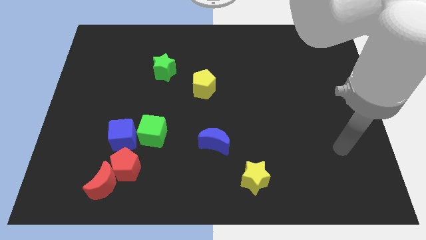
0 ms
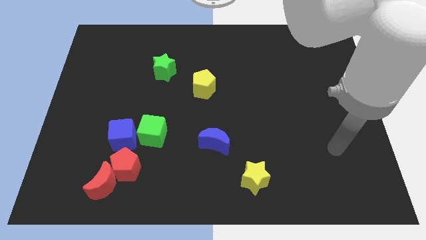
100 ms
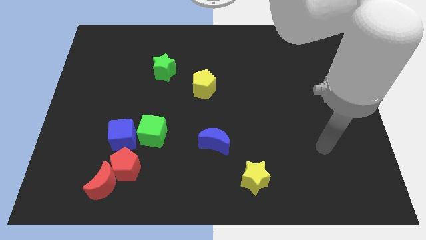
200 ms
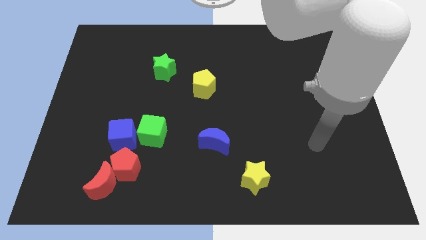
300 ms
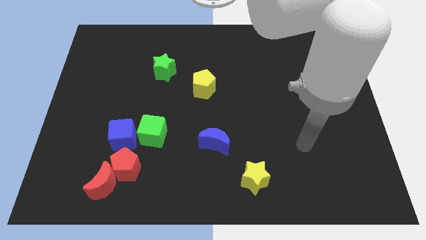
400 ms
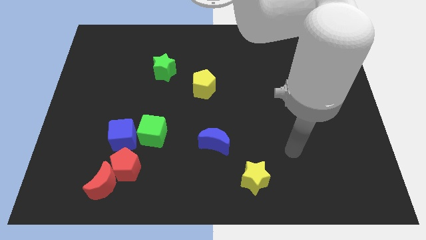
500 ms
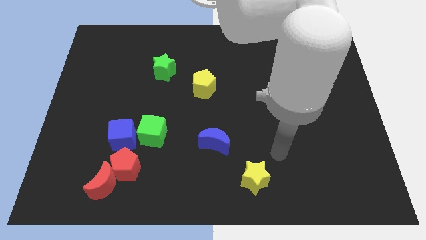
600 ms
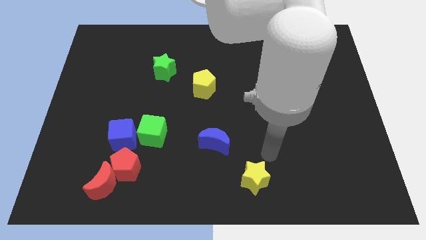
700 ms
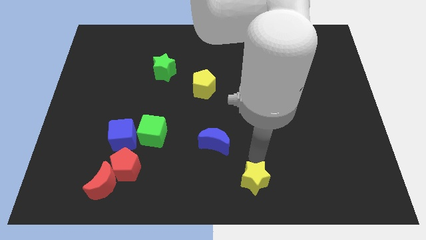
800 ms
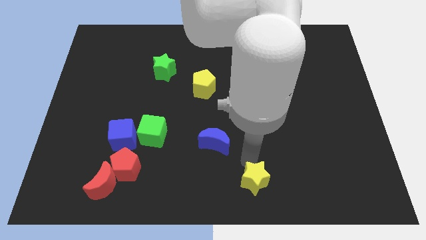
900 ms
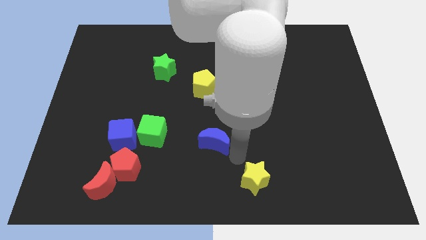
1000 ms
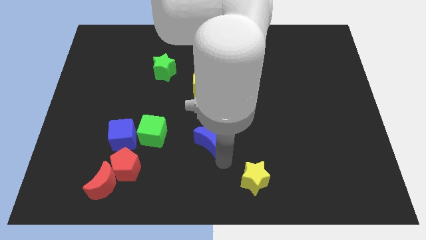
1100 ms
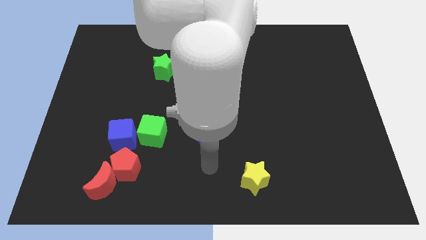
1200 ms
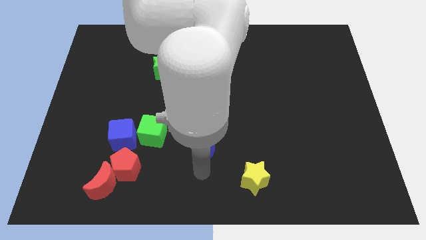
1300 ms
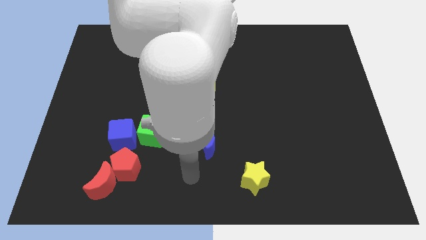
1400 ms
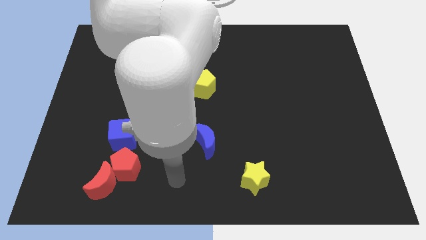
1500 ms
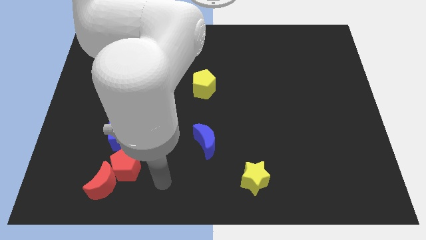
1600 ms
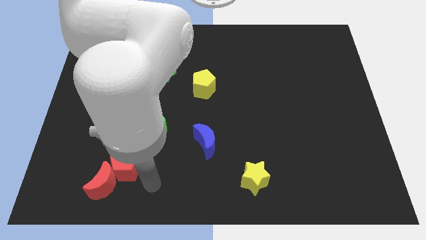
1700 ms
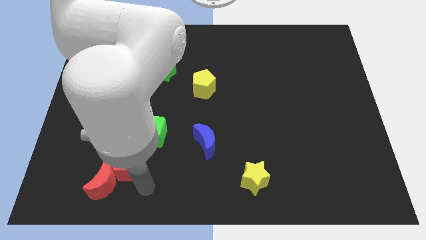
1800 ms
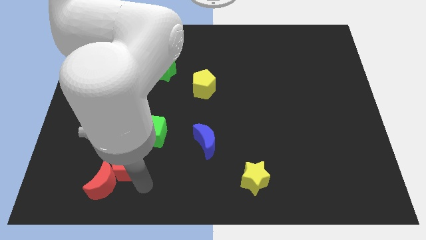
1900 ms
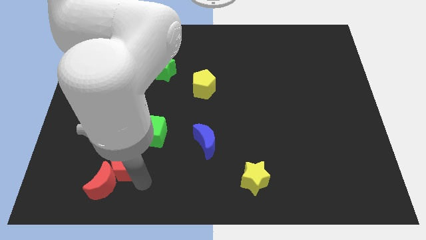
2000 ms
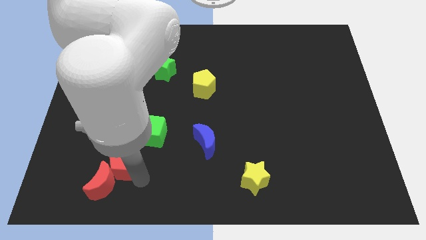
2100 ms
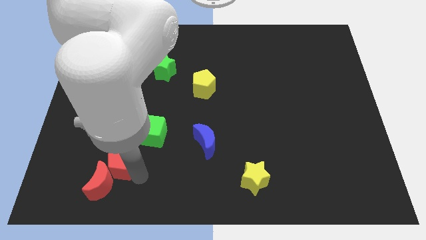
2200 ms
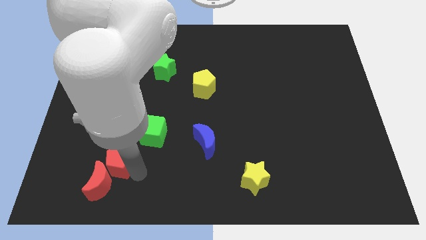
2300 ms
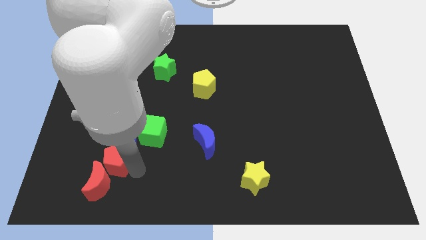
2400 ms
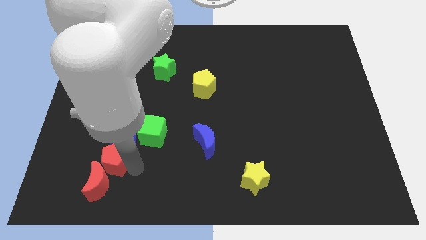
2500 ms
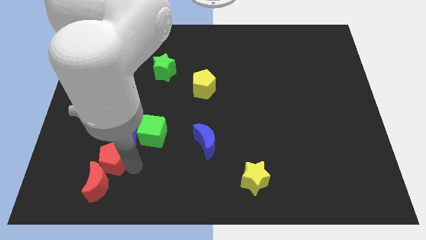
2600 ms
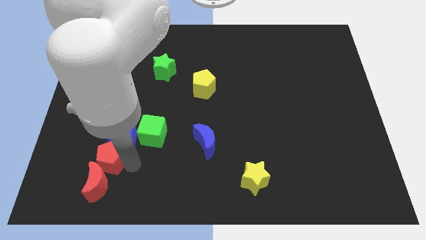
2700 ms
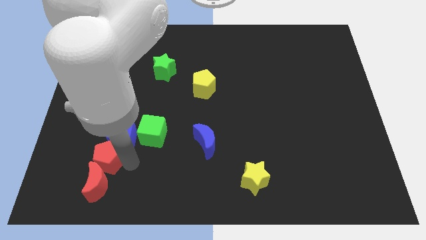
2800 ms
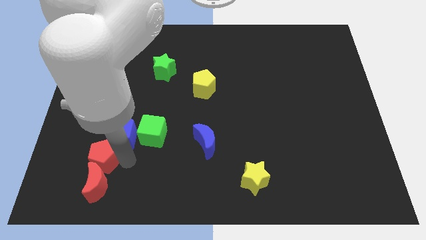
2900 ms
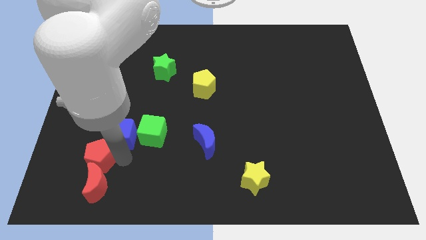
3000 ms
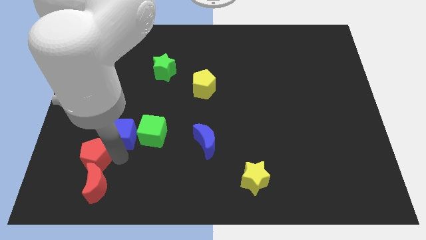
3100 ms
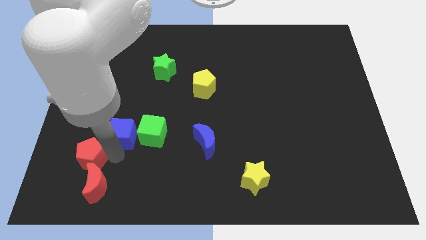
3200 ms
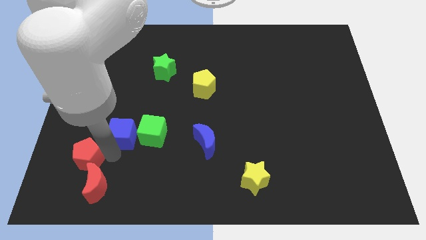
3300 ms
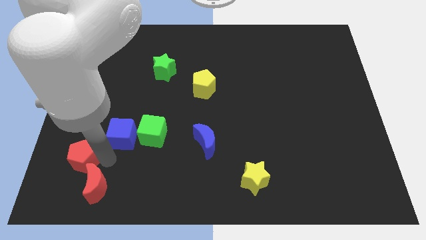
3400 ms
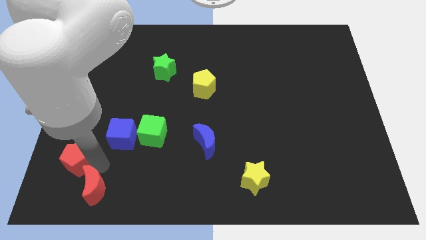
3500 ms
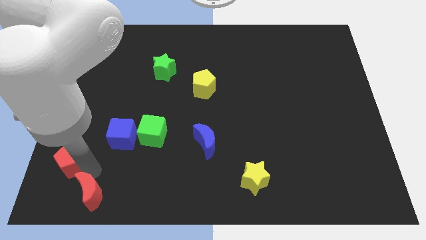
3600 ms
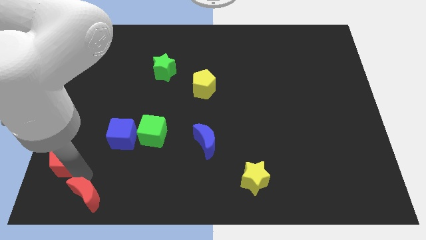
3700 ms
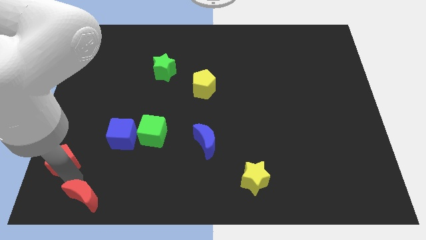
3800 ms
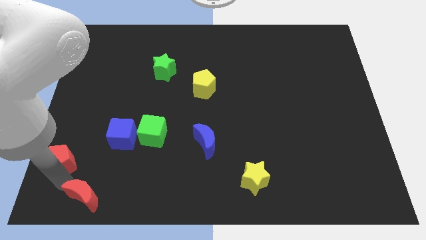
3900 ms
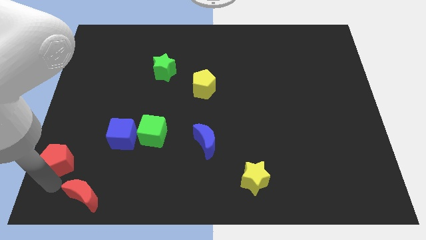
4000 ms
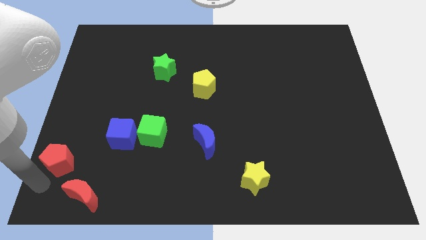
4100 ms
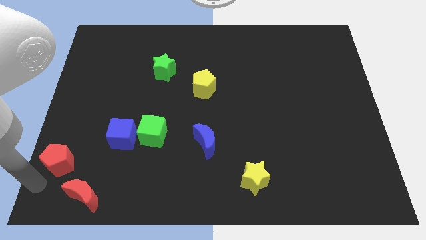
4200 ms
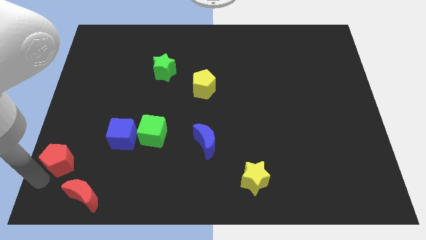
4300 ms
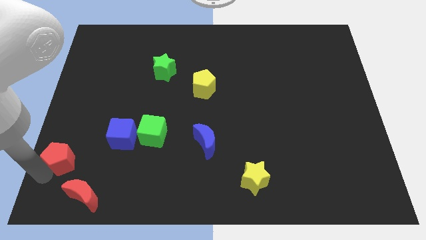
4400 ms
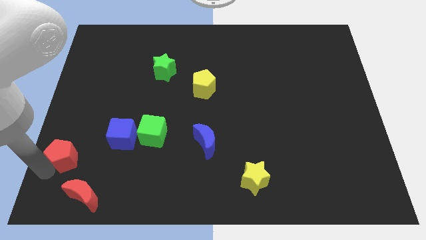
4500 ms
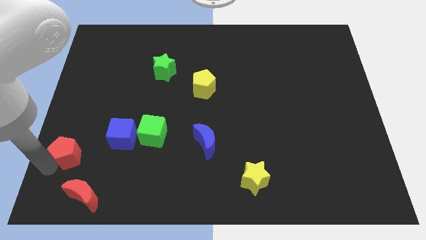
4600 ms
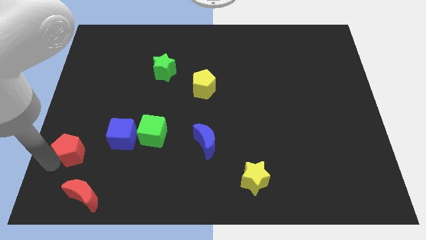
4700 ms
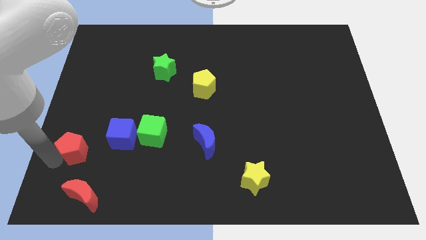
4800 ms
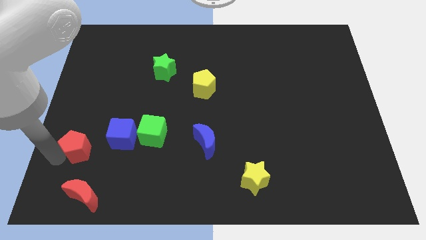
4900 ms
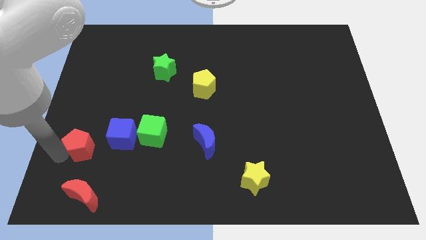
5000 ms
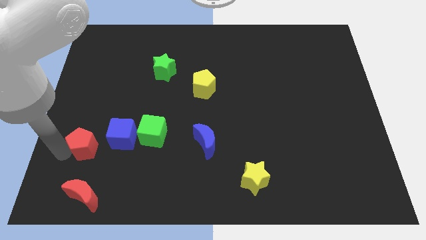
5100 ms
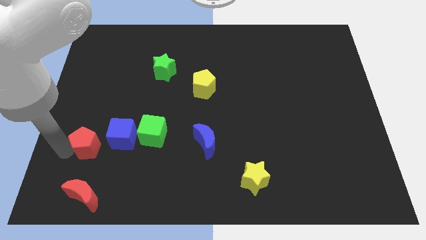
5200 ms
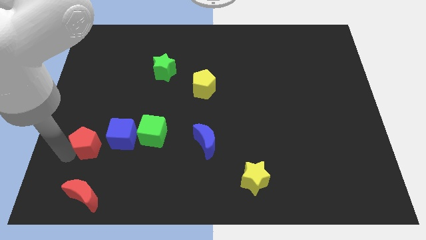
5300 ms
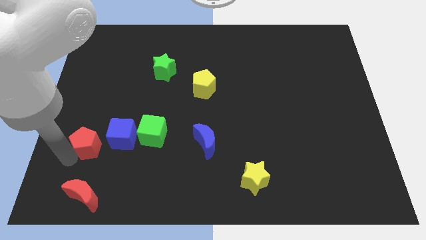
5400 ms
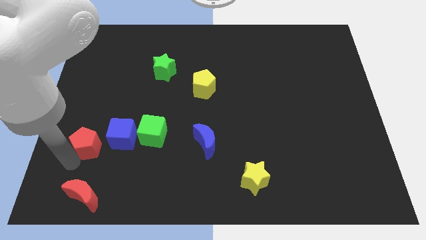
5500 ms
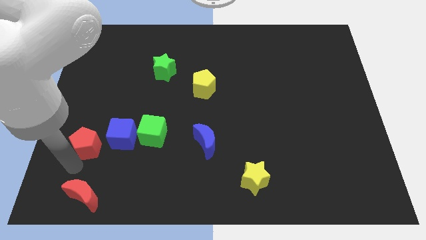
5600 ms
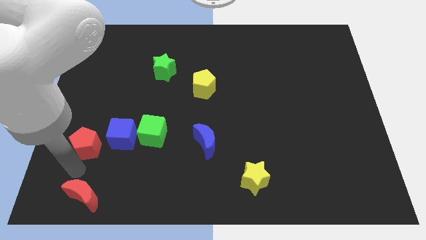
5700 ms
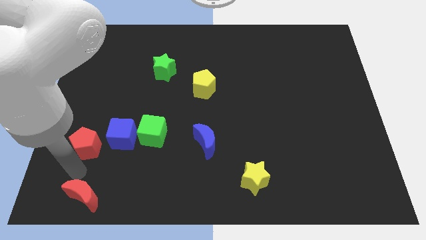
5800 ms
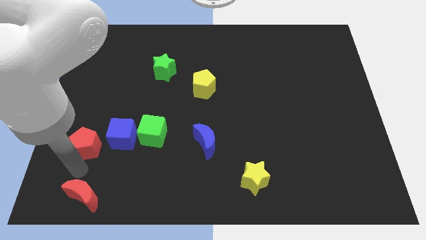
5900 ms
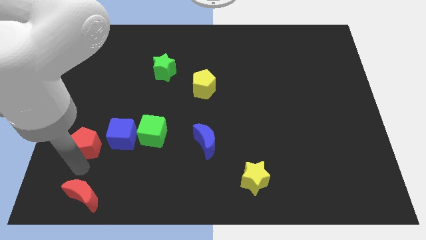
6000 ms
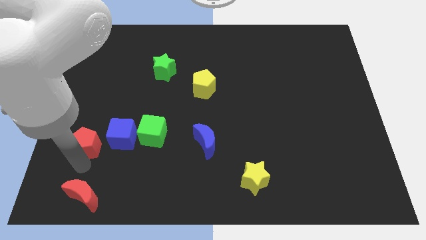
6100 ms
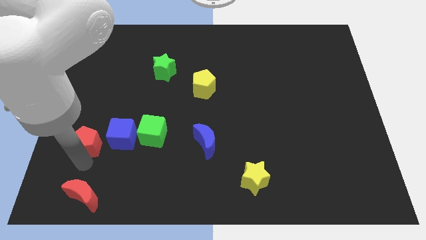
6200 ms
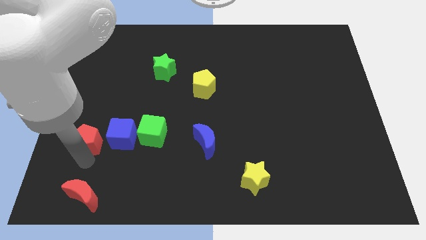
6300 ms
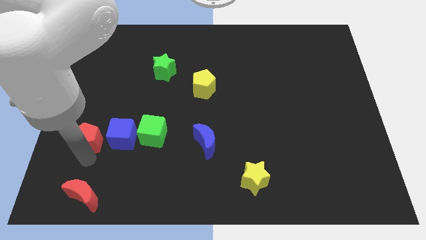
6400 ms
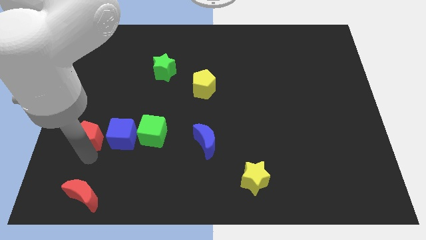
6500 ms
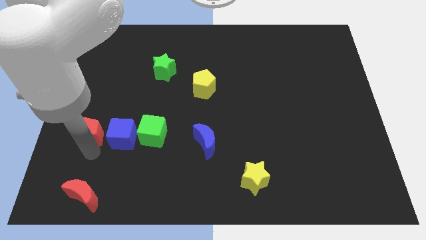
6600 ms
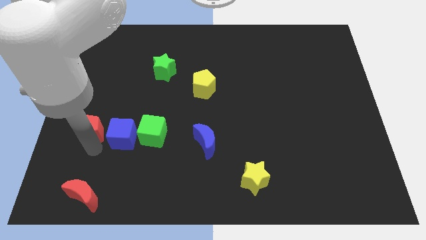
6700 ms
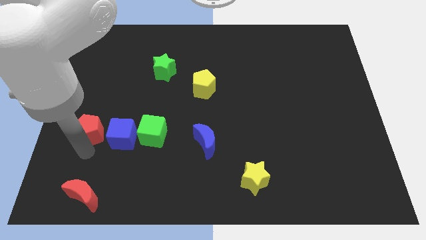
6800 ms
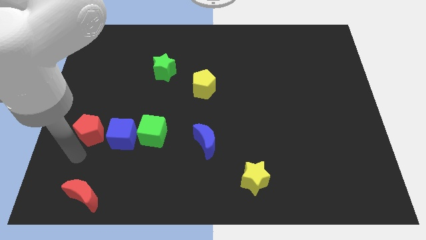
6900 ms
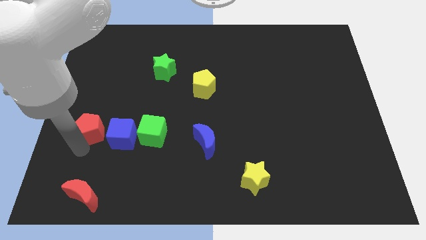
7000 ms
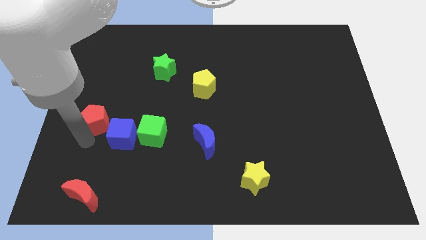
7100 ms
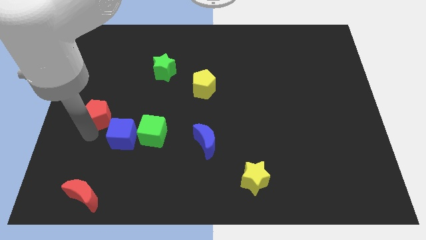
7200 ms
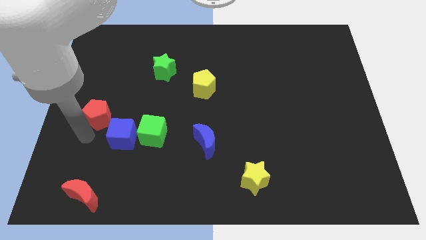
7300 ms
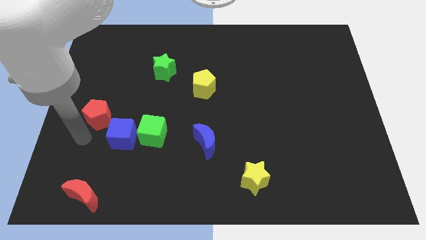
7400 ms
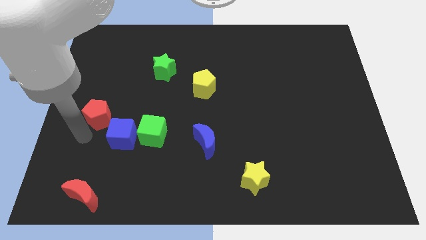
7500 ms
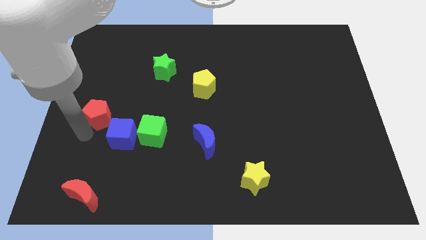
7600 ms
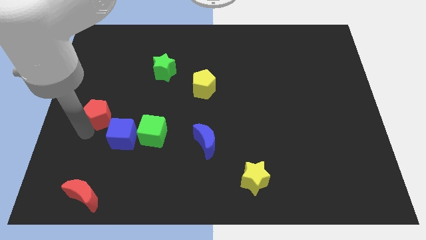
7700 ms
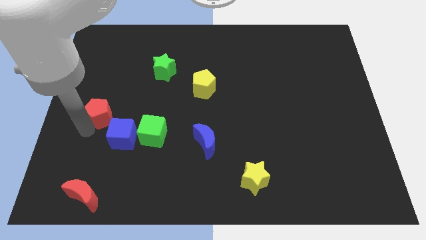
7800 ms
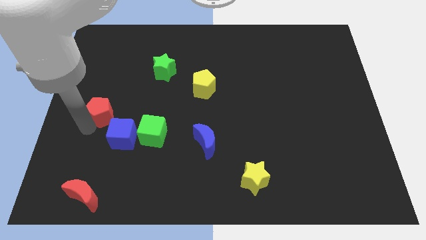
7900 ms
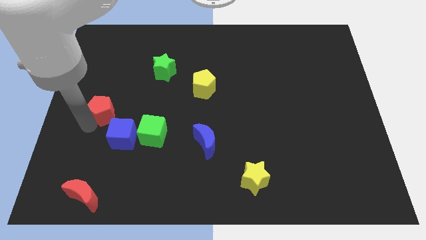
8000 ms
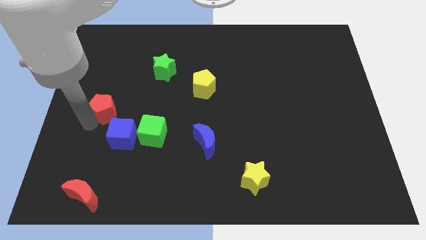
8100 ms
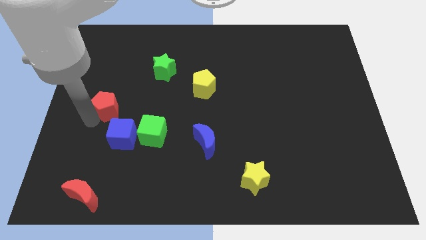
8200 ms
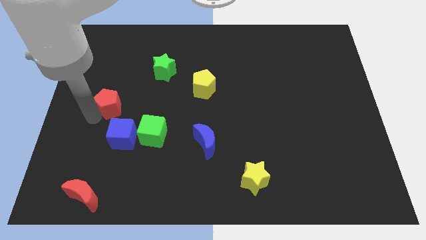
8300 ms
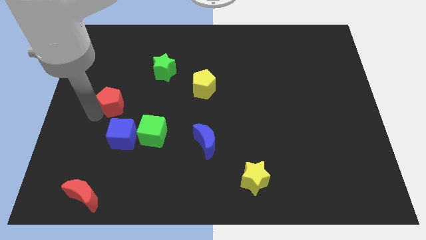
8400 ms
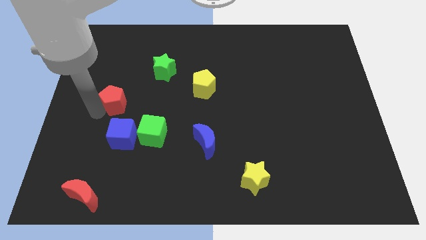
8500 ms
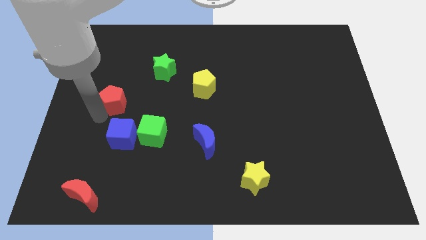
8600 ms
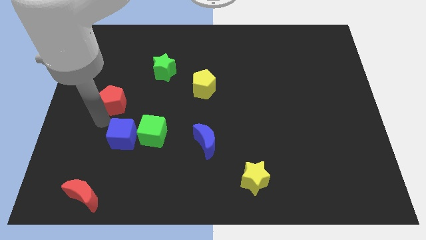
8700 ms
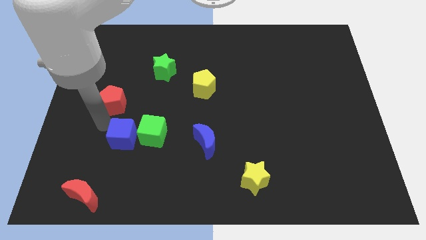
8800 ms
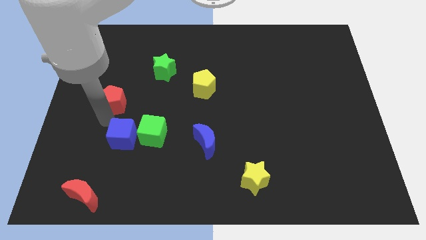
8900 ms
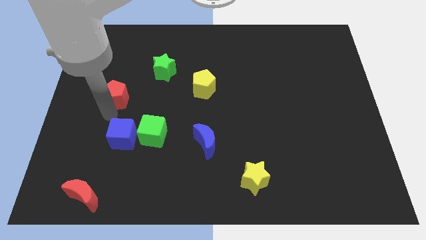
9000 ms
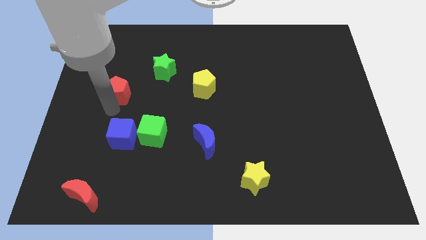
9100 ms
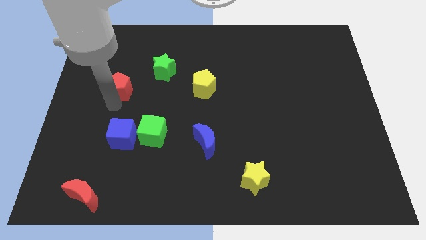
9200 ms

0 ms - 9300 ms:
move the red pentagon upwards
